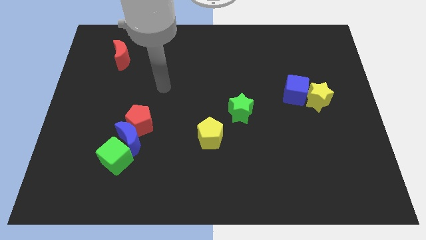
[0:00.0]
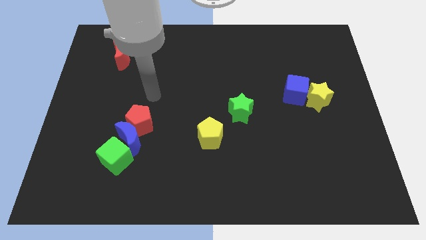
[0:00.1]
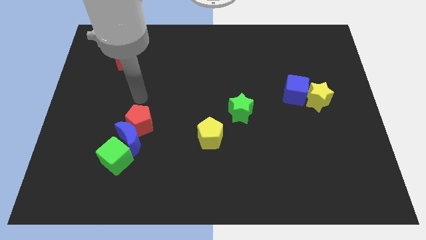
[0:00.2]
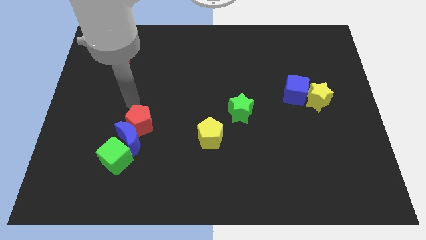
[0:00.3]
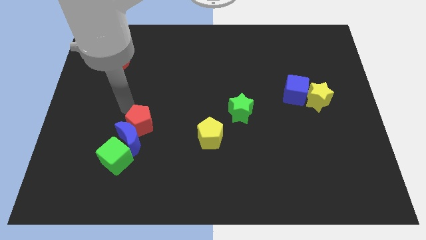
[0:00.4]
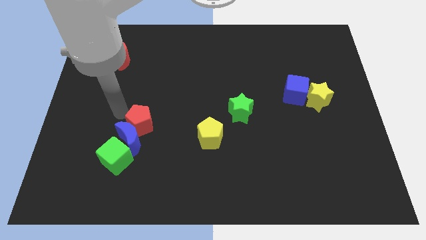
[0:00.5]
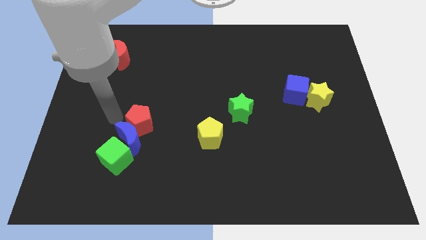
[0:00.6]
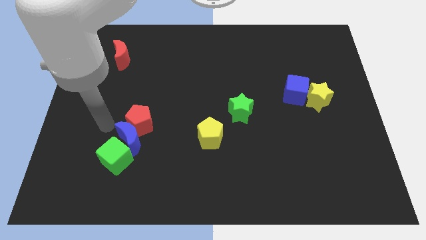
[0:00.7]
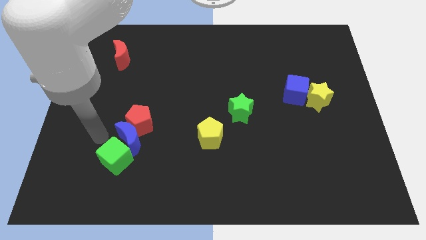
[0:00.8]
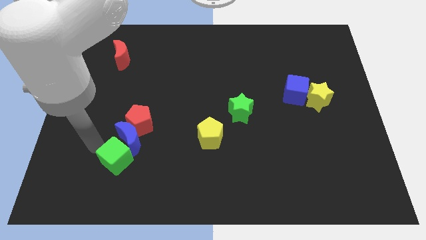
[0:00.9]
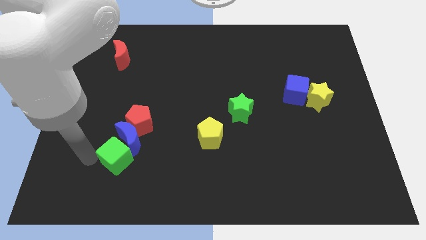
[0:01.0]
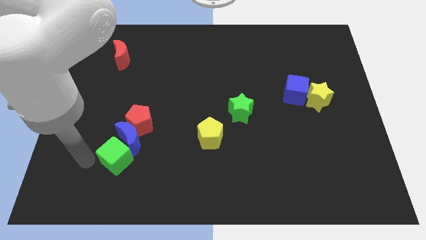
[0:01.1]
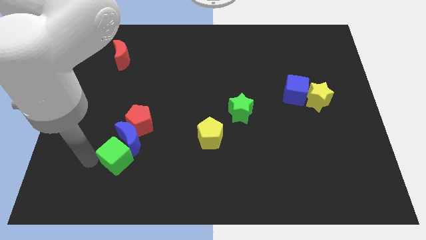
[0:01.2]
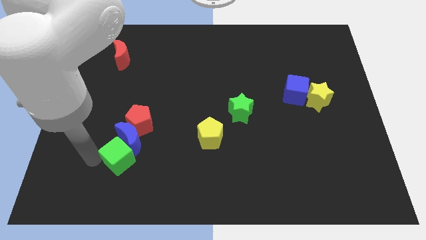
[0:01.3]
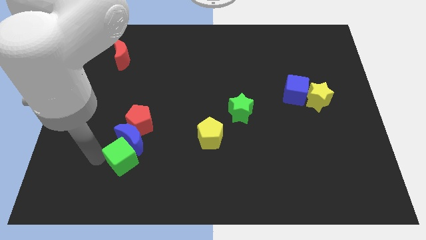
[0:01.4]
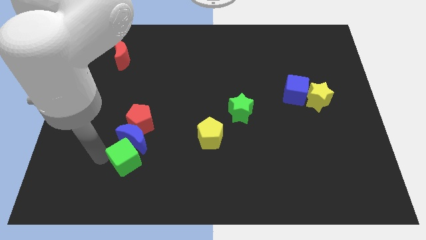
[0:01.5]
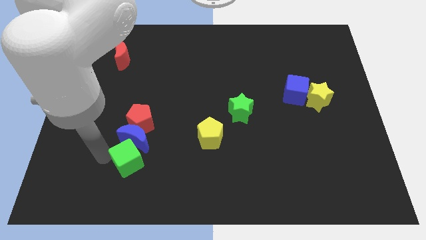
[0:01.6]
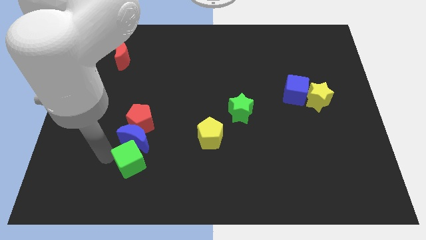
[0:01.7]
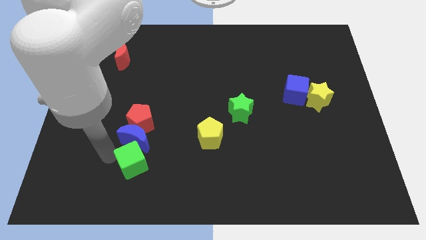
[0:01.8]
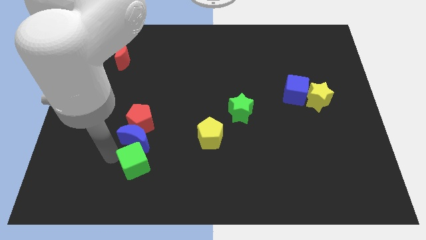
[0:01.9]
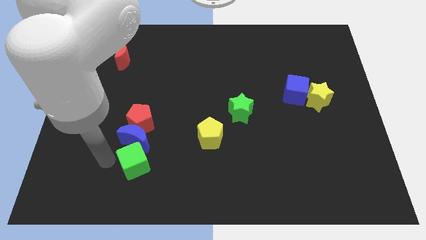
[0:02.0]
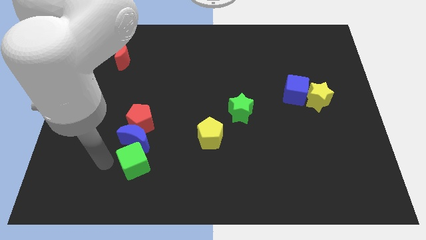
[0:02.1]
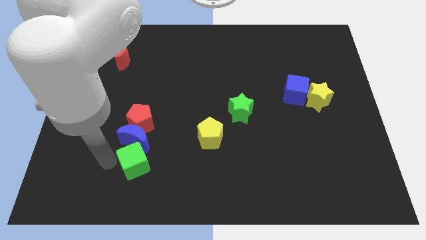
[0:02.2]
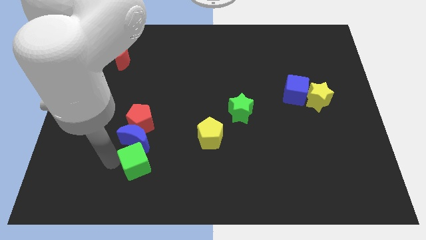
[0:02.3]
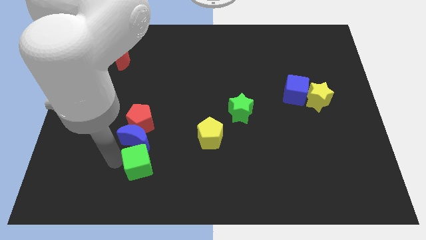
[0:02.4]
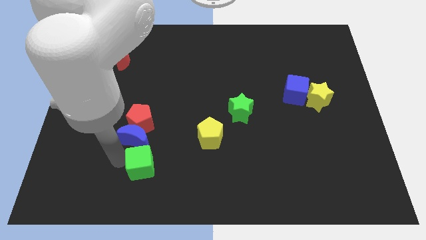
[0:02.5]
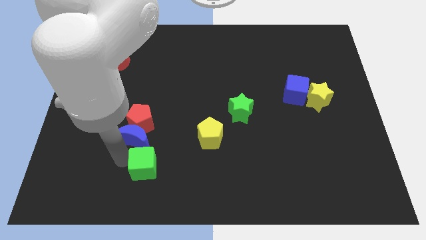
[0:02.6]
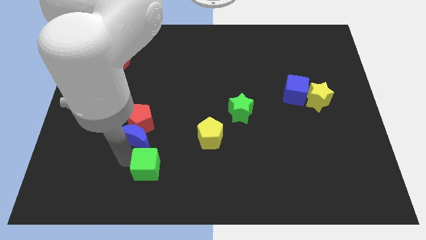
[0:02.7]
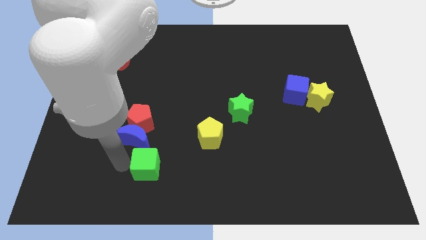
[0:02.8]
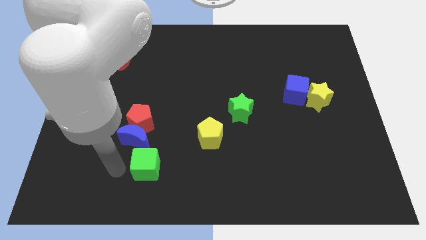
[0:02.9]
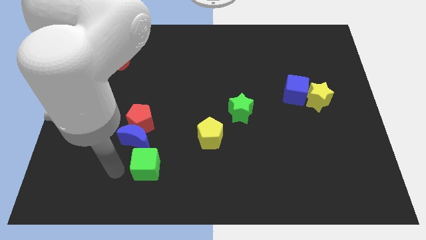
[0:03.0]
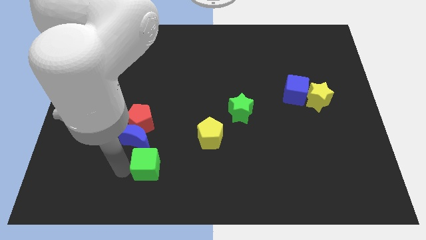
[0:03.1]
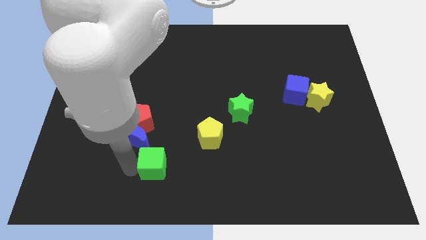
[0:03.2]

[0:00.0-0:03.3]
slightly slide the green cube to the right

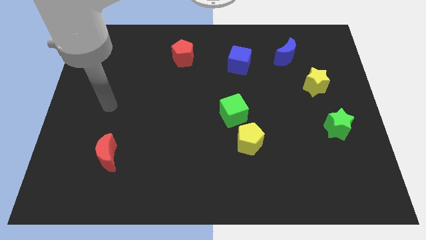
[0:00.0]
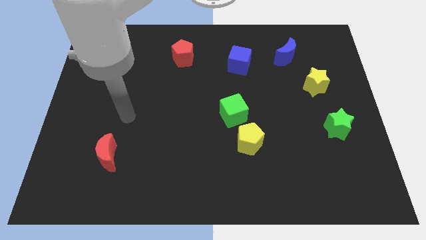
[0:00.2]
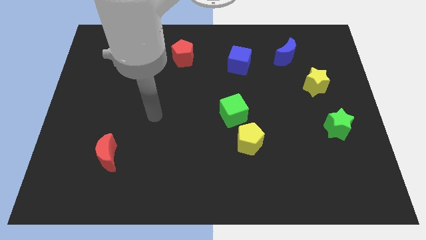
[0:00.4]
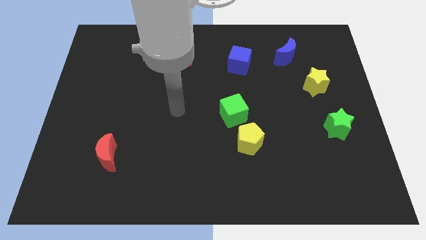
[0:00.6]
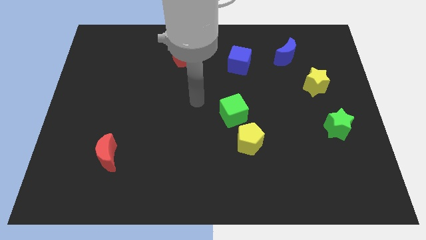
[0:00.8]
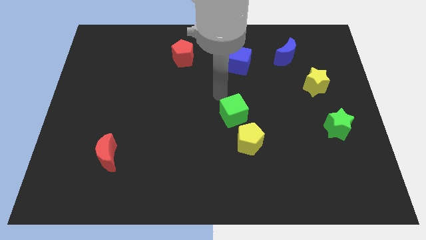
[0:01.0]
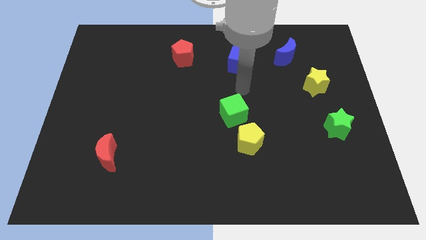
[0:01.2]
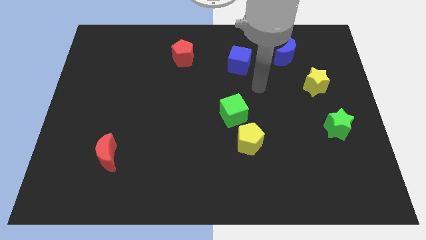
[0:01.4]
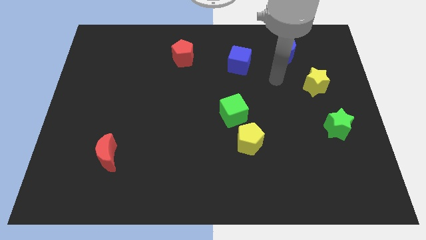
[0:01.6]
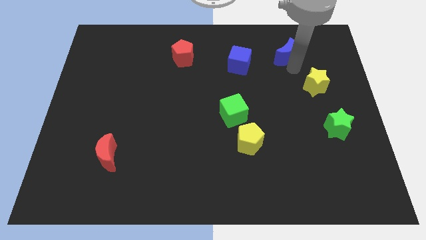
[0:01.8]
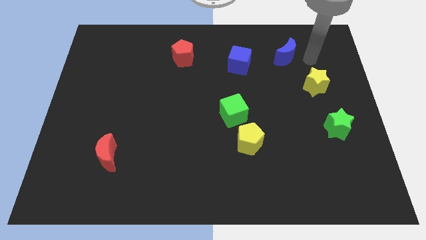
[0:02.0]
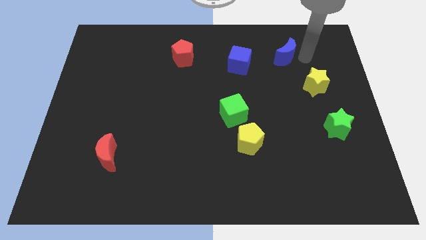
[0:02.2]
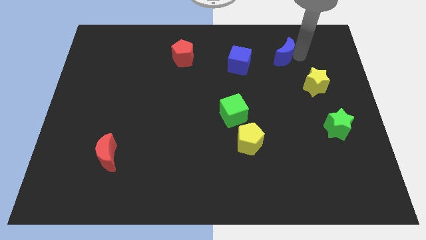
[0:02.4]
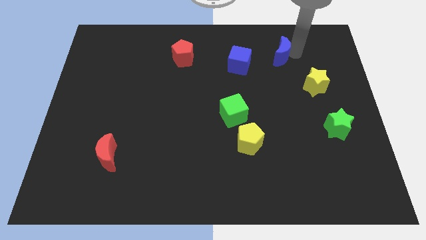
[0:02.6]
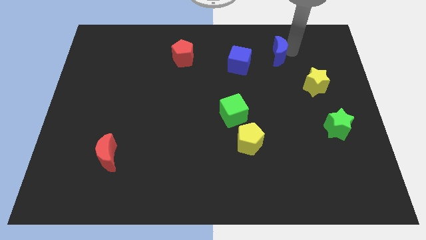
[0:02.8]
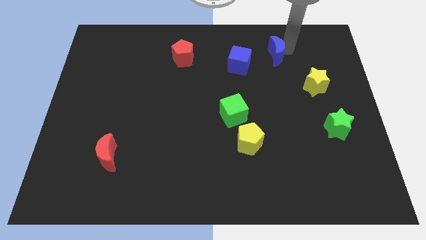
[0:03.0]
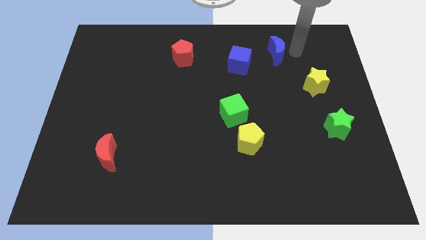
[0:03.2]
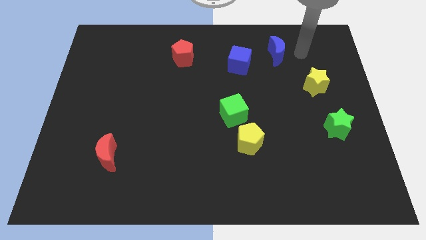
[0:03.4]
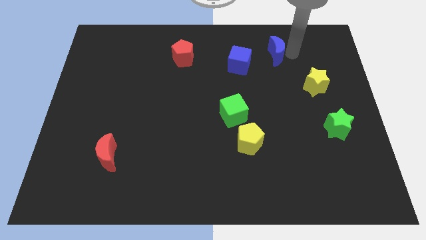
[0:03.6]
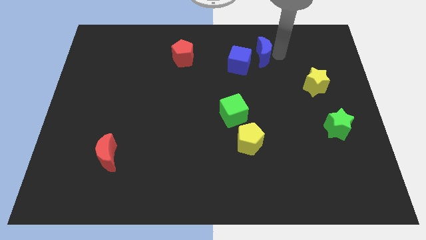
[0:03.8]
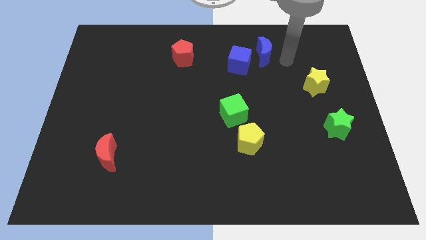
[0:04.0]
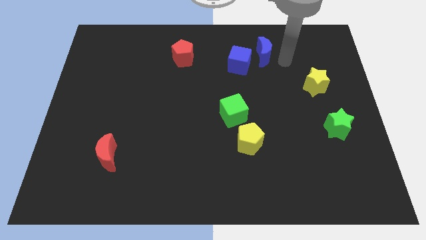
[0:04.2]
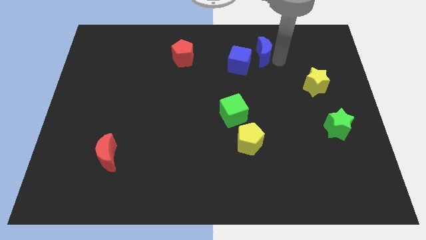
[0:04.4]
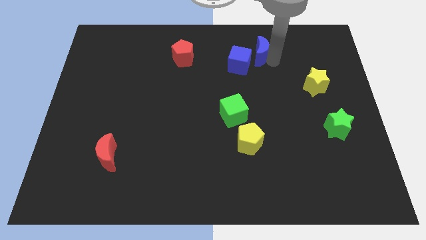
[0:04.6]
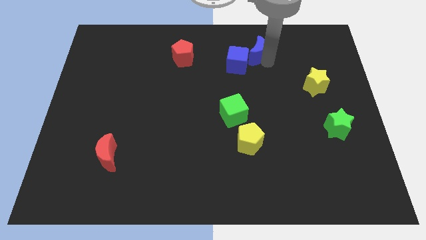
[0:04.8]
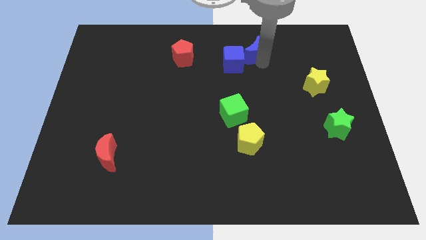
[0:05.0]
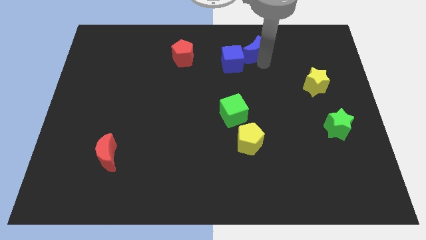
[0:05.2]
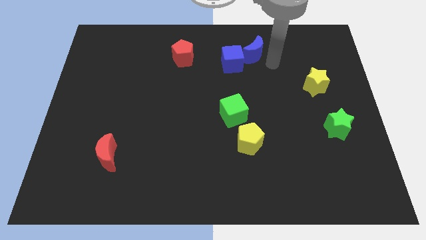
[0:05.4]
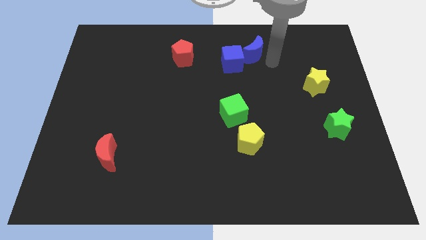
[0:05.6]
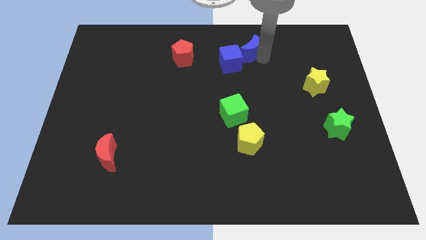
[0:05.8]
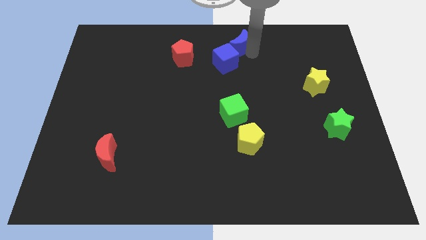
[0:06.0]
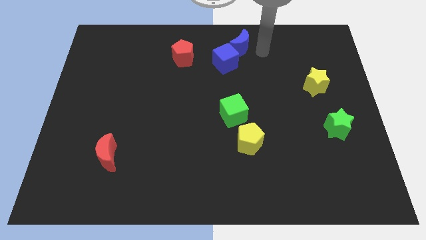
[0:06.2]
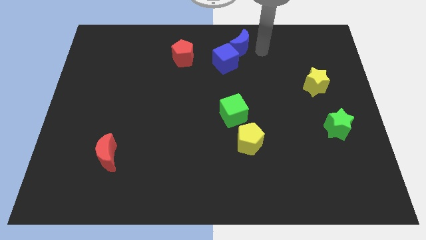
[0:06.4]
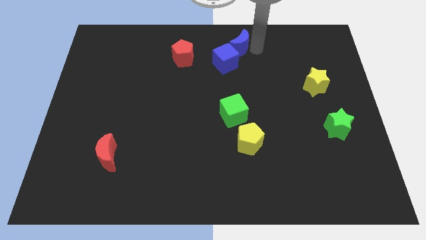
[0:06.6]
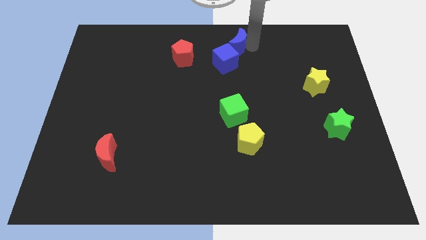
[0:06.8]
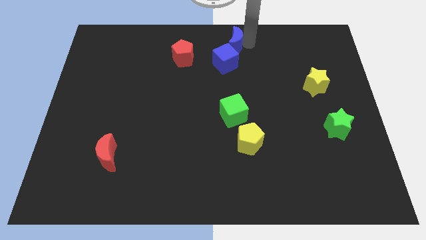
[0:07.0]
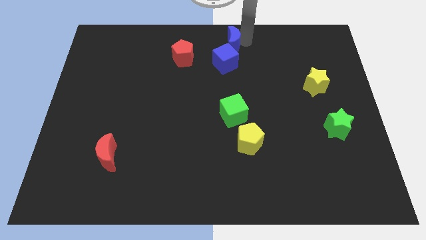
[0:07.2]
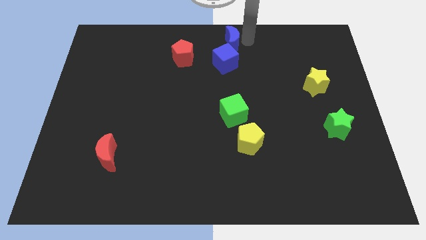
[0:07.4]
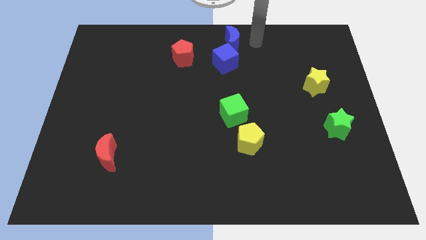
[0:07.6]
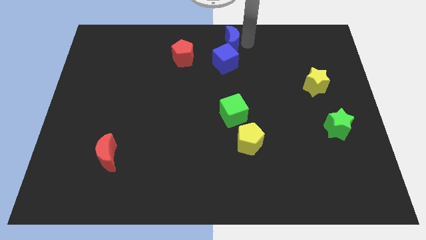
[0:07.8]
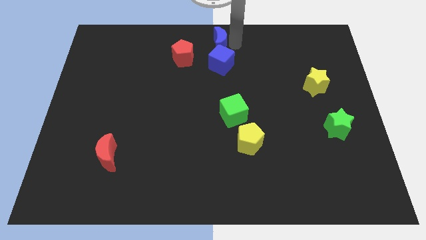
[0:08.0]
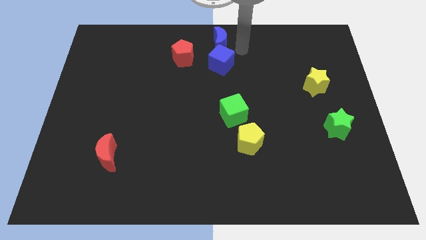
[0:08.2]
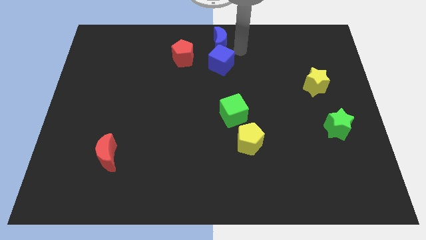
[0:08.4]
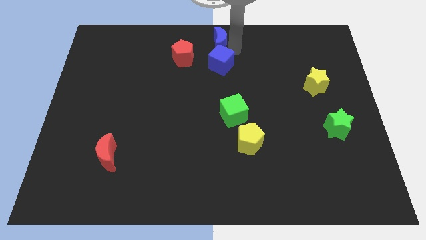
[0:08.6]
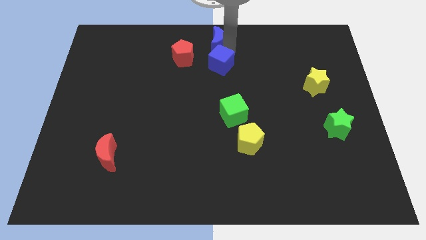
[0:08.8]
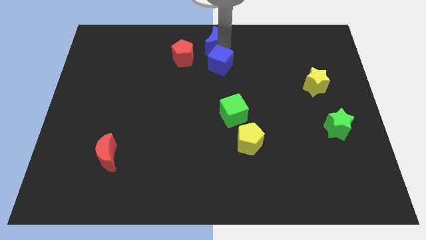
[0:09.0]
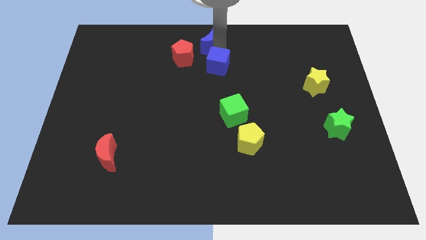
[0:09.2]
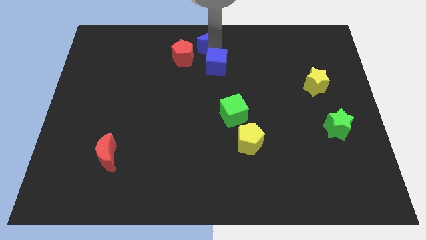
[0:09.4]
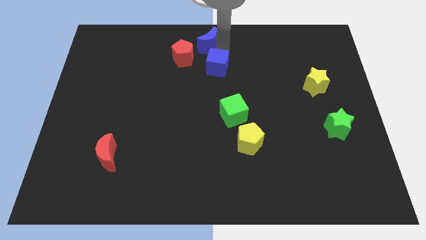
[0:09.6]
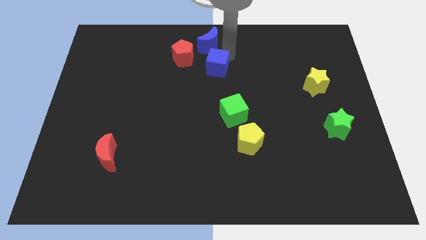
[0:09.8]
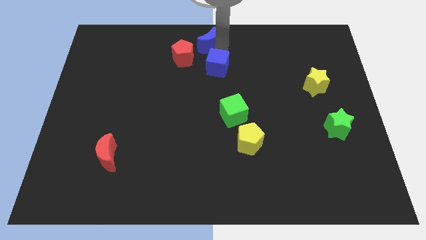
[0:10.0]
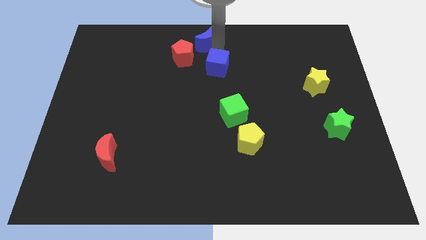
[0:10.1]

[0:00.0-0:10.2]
push the blue moon to the left
